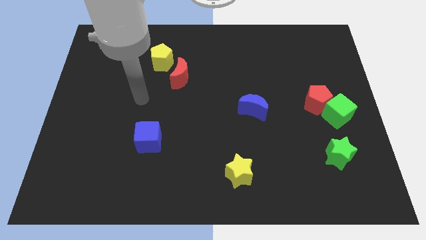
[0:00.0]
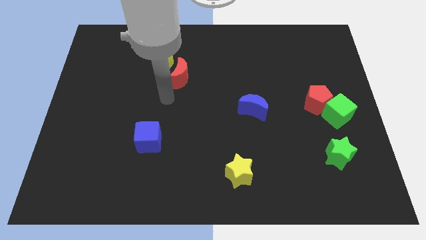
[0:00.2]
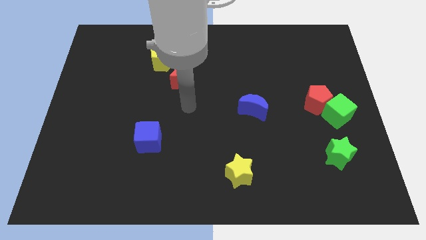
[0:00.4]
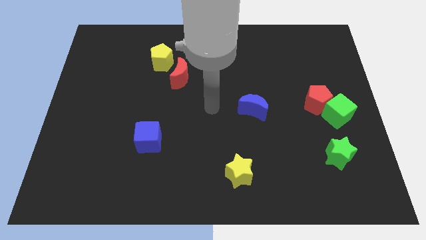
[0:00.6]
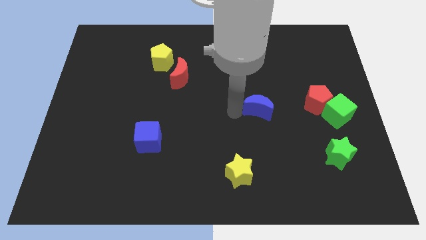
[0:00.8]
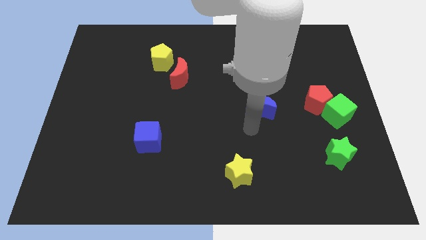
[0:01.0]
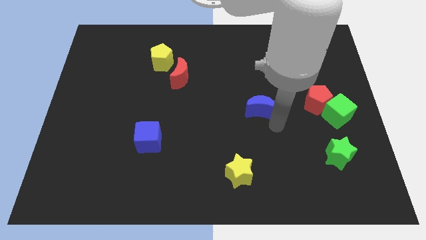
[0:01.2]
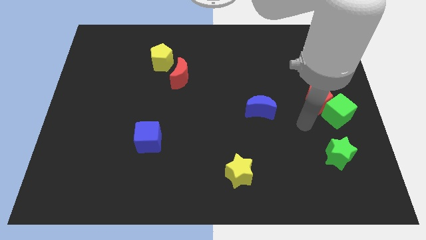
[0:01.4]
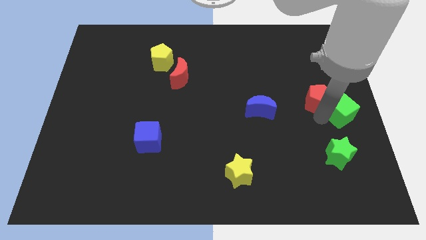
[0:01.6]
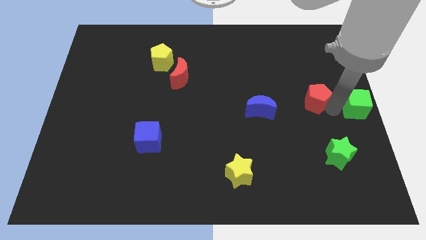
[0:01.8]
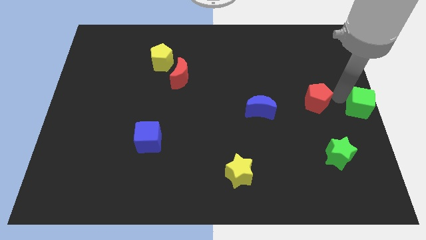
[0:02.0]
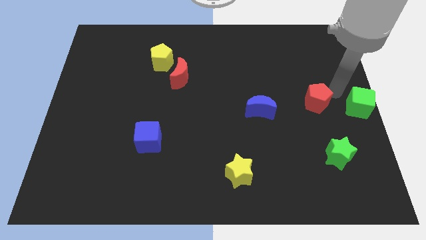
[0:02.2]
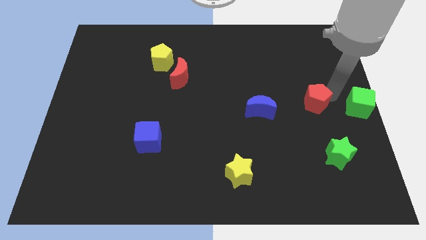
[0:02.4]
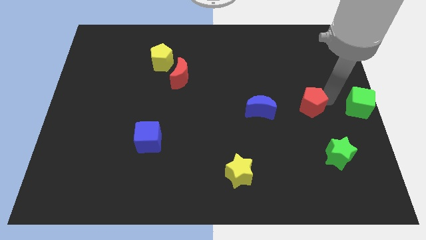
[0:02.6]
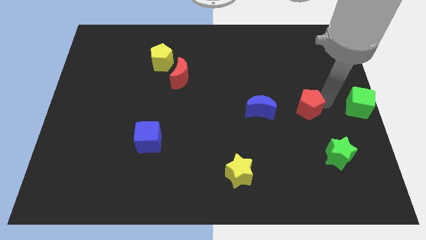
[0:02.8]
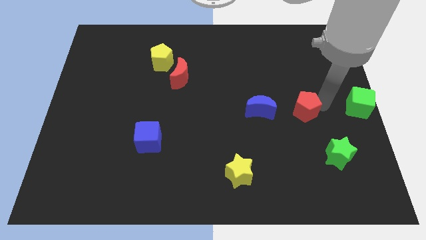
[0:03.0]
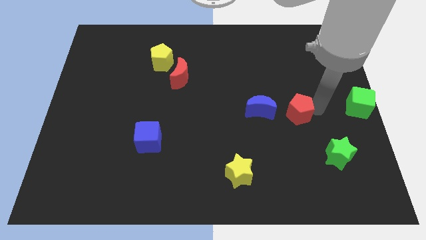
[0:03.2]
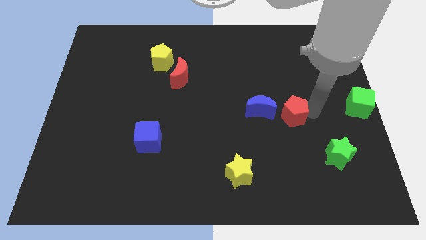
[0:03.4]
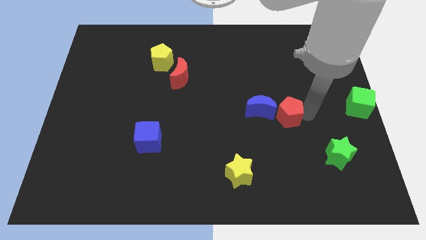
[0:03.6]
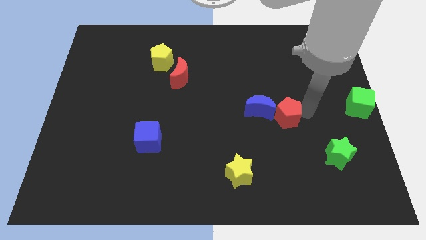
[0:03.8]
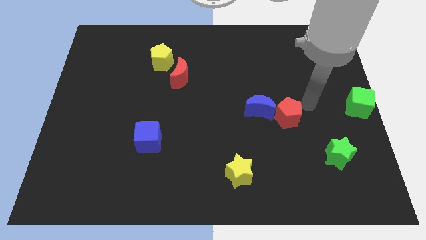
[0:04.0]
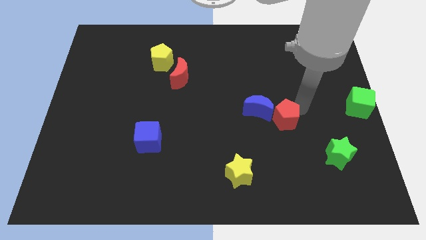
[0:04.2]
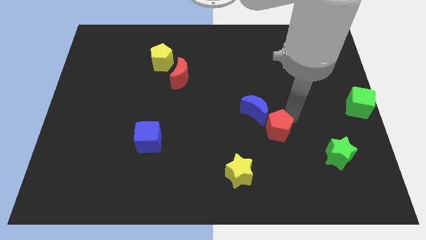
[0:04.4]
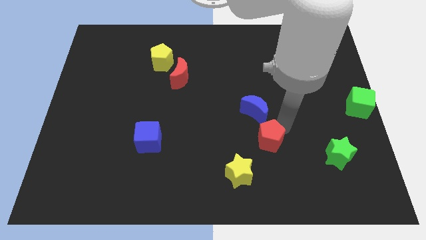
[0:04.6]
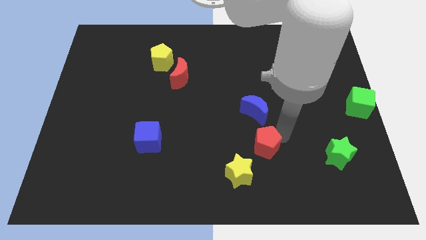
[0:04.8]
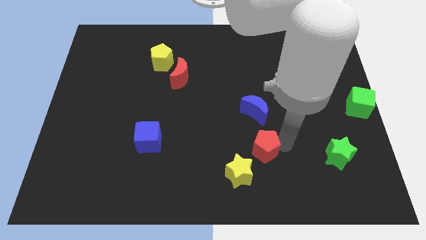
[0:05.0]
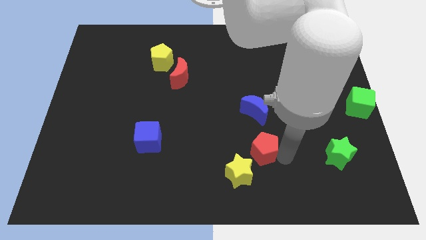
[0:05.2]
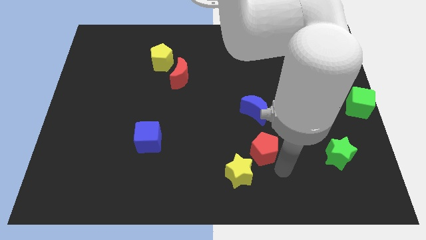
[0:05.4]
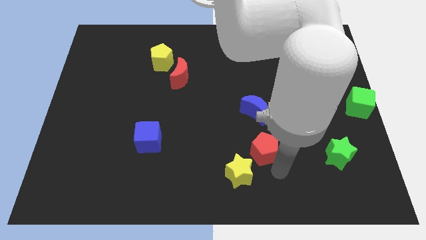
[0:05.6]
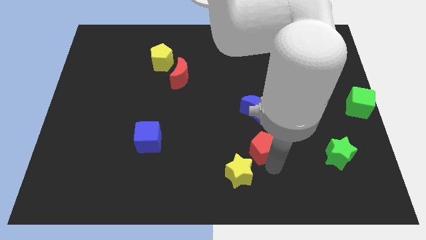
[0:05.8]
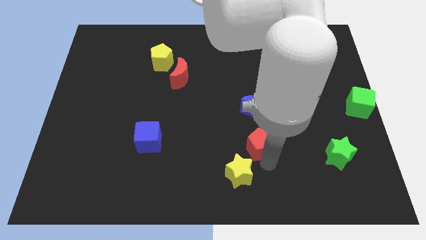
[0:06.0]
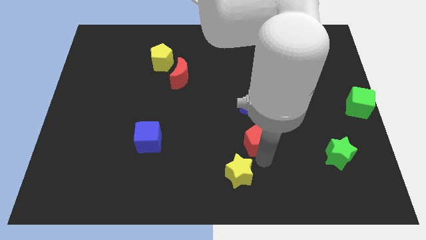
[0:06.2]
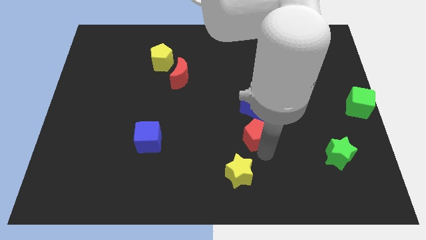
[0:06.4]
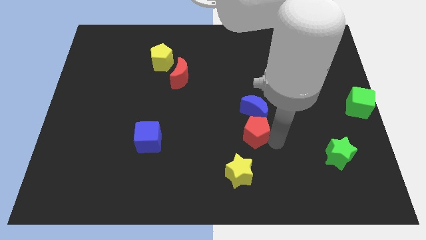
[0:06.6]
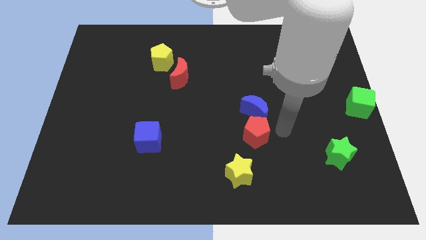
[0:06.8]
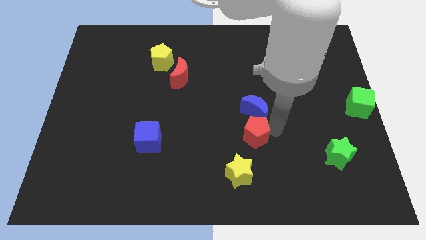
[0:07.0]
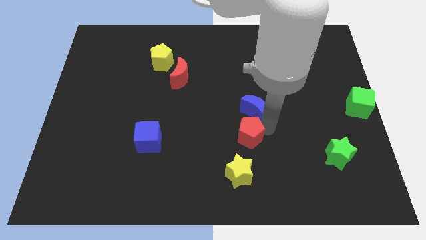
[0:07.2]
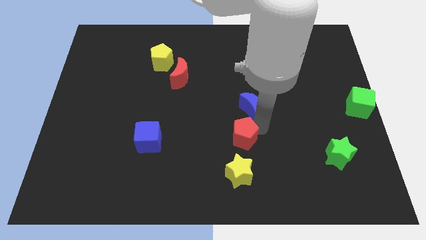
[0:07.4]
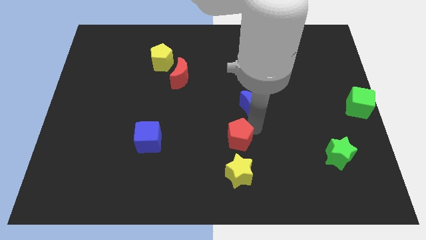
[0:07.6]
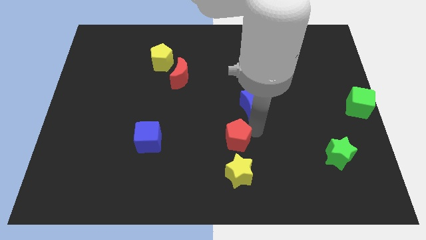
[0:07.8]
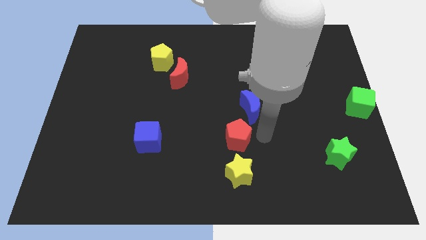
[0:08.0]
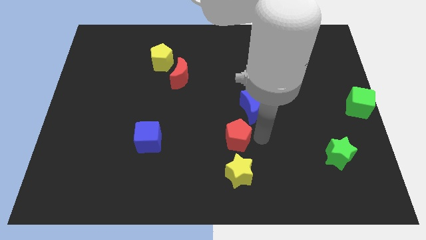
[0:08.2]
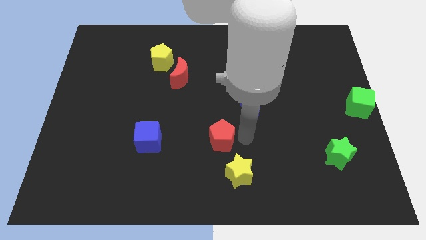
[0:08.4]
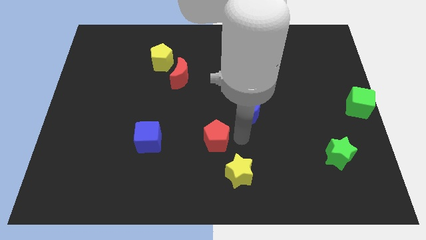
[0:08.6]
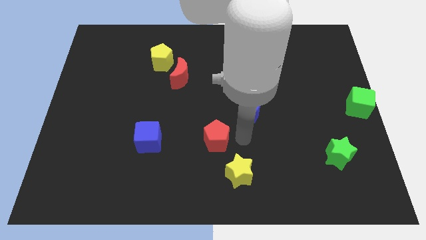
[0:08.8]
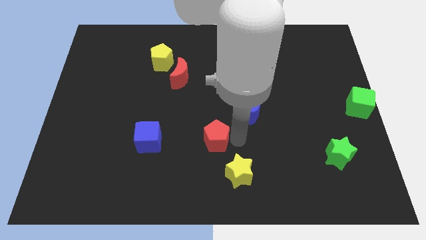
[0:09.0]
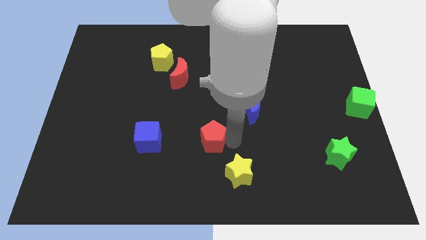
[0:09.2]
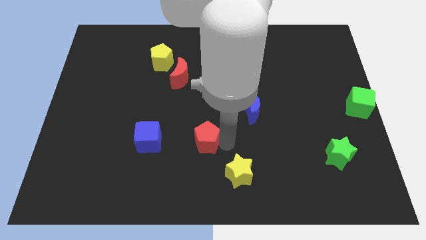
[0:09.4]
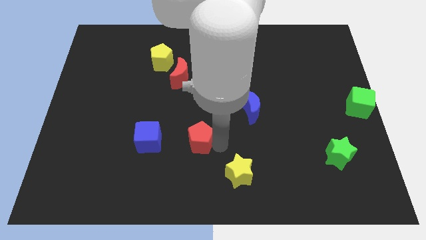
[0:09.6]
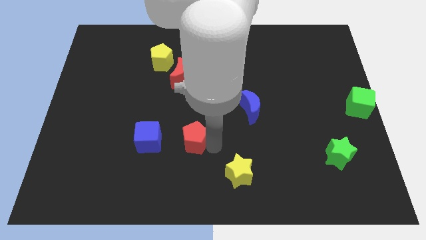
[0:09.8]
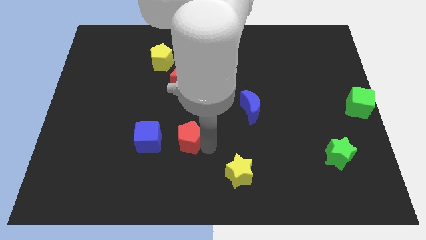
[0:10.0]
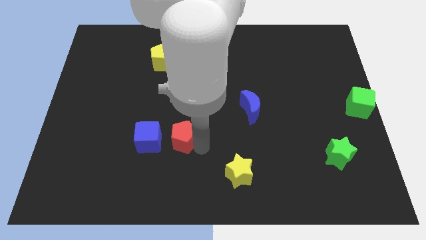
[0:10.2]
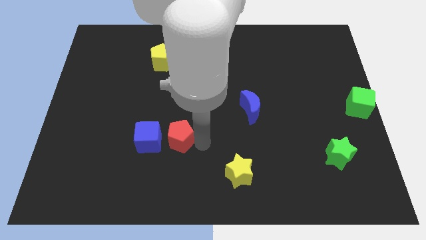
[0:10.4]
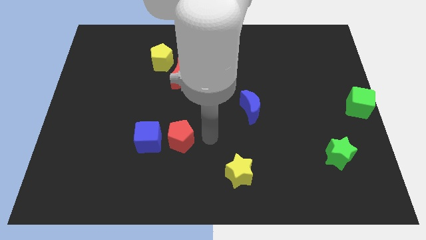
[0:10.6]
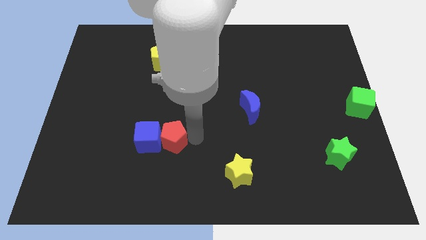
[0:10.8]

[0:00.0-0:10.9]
slide the red pentagon close to the blue cube

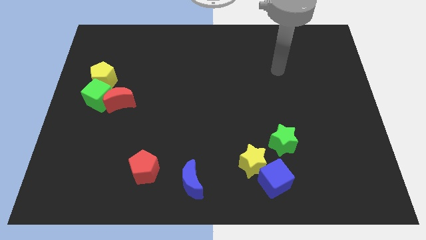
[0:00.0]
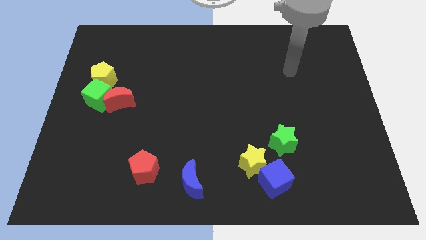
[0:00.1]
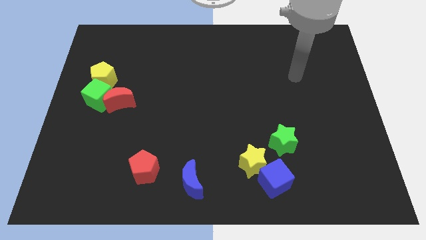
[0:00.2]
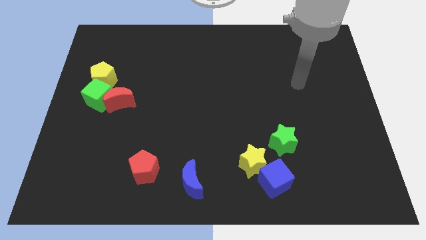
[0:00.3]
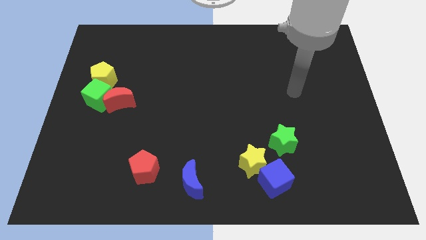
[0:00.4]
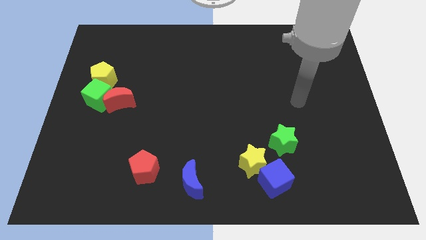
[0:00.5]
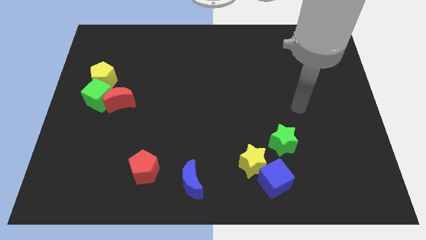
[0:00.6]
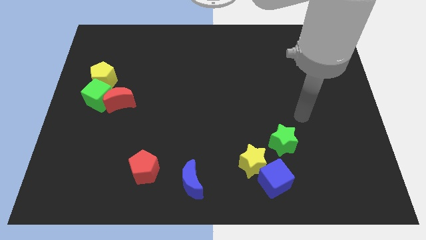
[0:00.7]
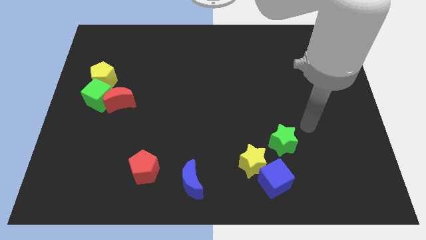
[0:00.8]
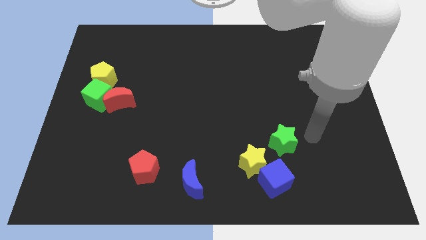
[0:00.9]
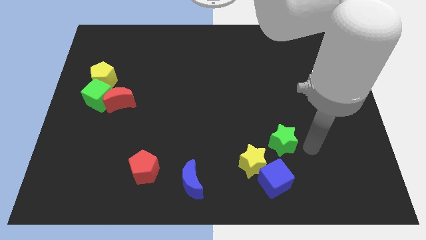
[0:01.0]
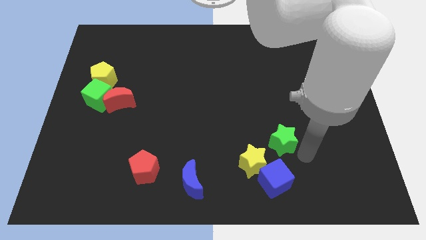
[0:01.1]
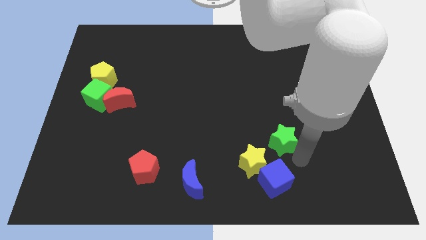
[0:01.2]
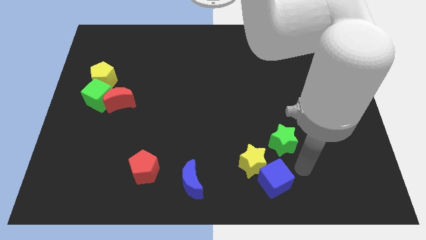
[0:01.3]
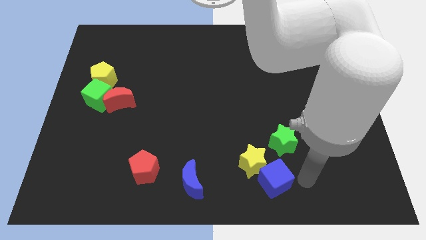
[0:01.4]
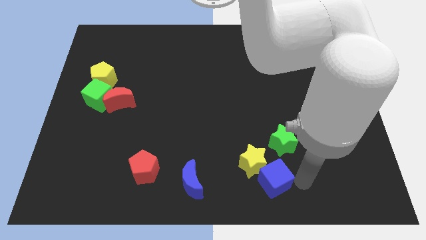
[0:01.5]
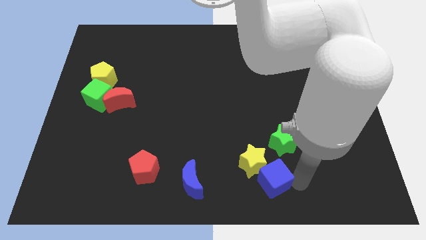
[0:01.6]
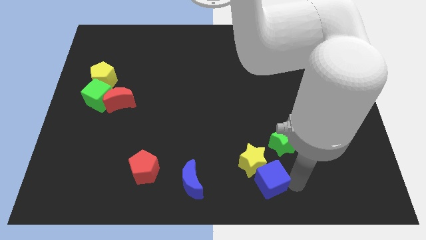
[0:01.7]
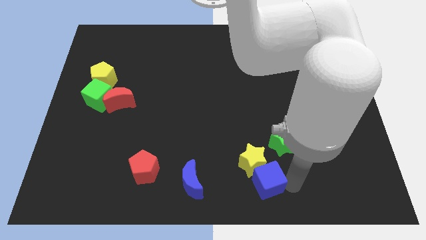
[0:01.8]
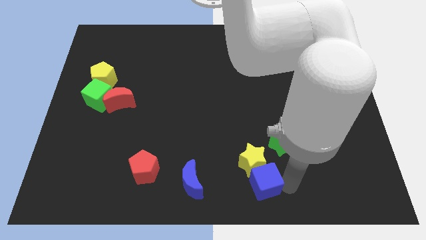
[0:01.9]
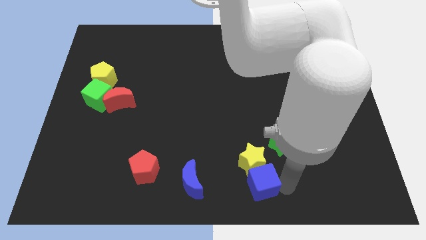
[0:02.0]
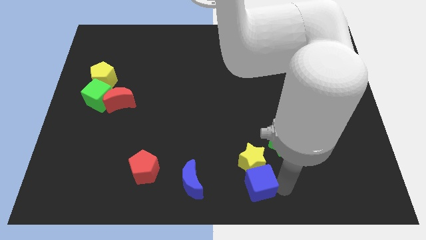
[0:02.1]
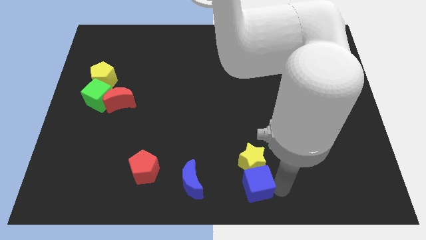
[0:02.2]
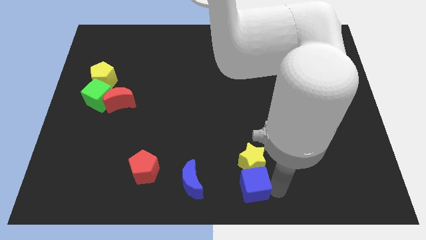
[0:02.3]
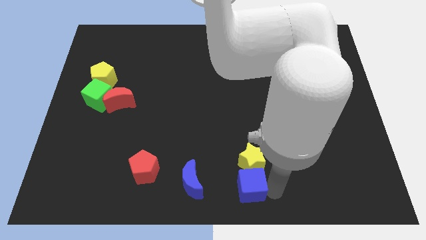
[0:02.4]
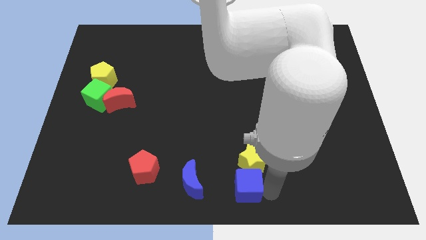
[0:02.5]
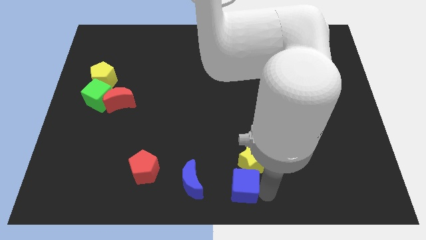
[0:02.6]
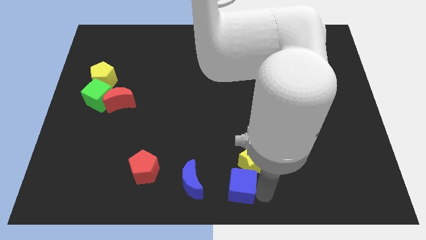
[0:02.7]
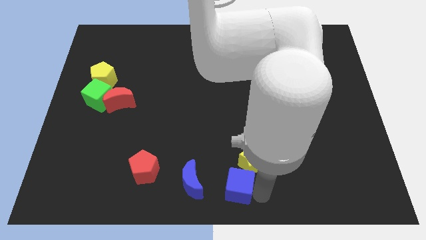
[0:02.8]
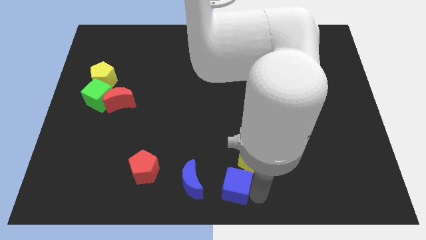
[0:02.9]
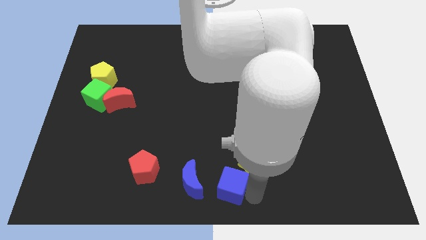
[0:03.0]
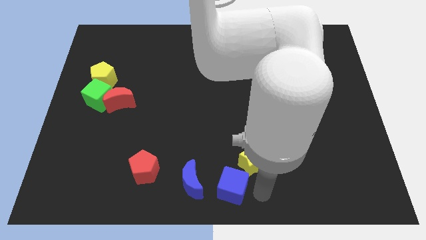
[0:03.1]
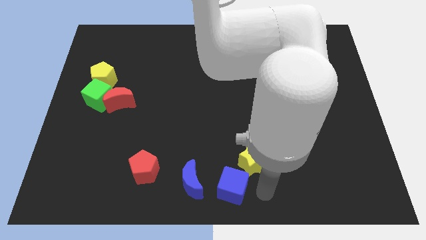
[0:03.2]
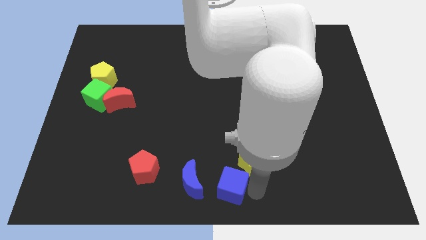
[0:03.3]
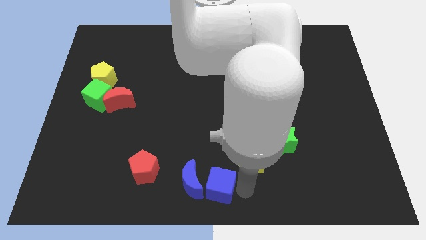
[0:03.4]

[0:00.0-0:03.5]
move the blue cube close to the blue moon
